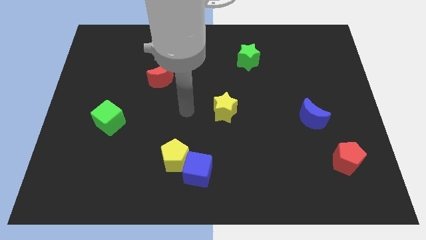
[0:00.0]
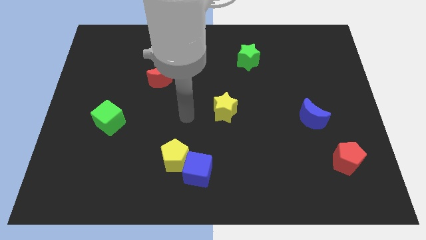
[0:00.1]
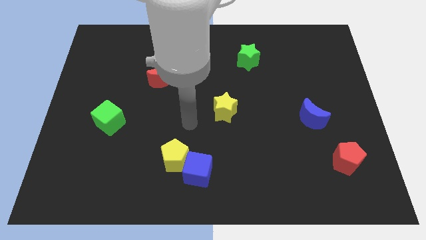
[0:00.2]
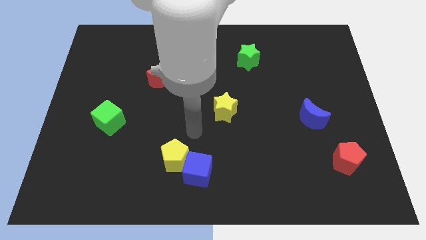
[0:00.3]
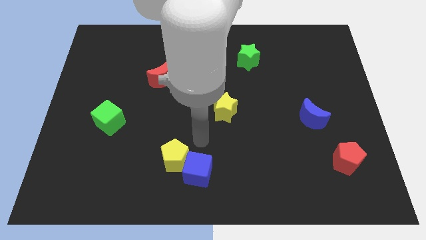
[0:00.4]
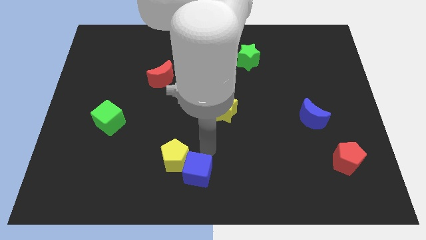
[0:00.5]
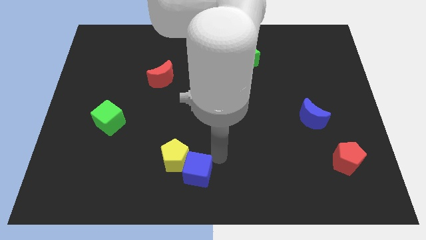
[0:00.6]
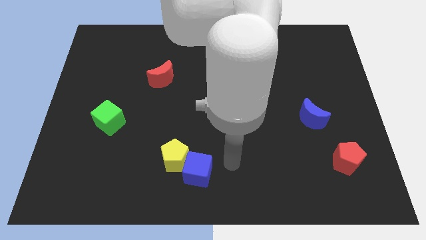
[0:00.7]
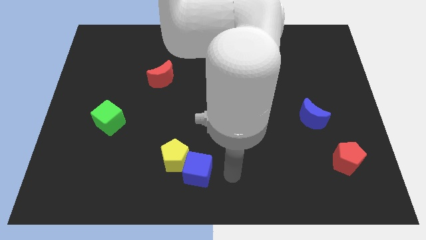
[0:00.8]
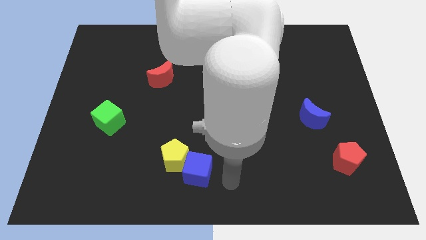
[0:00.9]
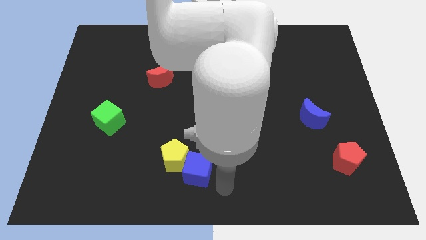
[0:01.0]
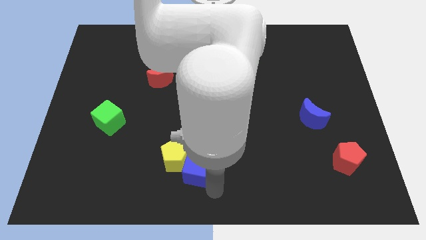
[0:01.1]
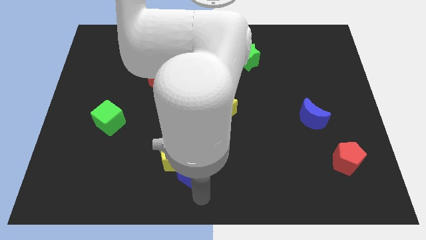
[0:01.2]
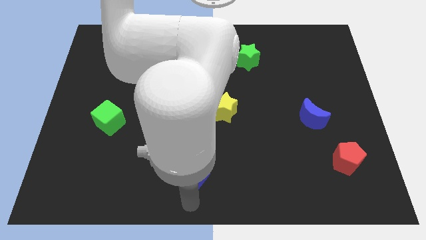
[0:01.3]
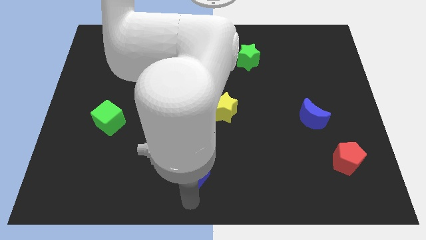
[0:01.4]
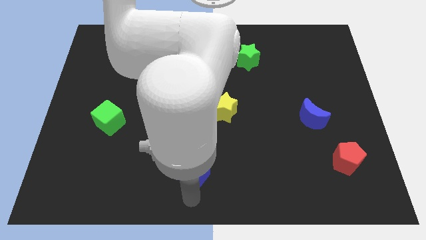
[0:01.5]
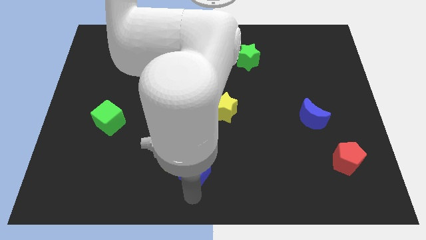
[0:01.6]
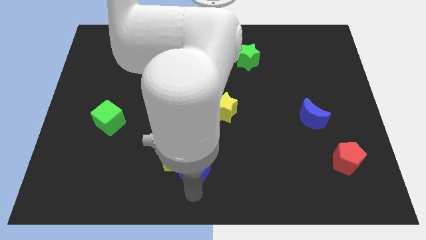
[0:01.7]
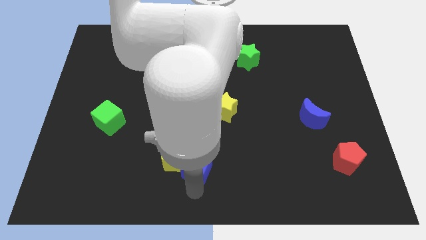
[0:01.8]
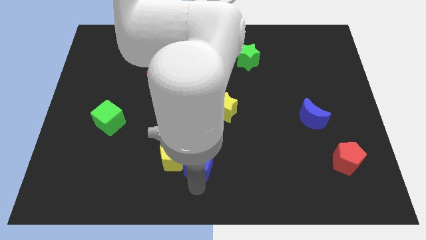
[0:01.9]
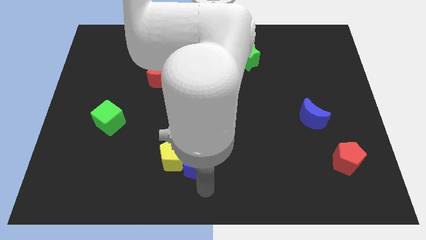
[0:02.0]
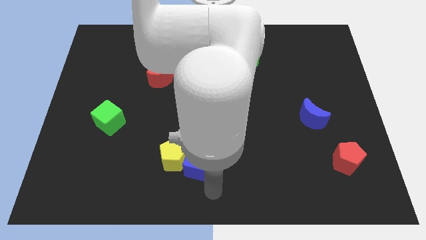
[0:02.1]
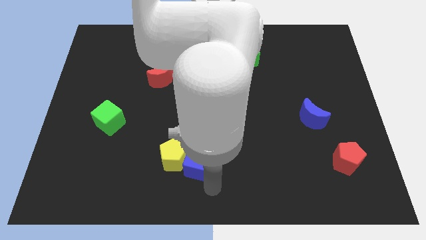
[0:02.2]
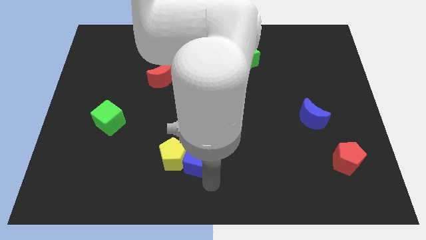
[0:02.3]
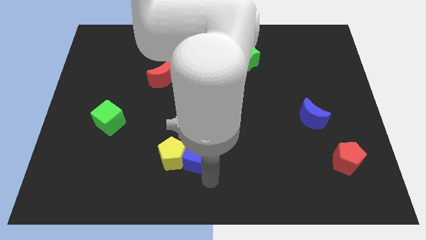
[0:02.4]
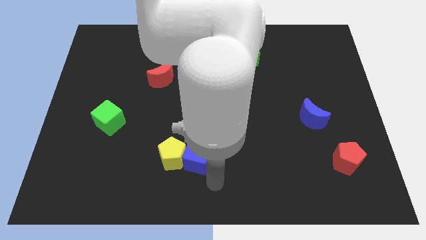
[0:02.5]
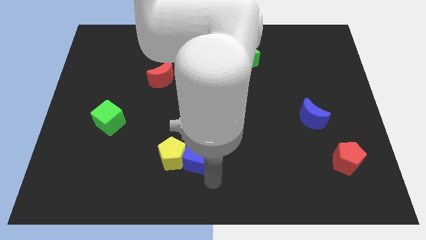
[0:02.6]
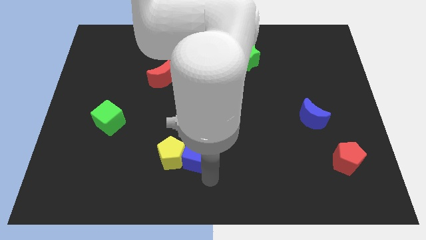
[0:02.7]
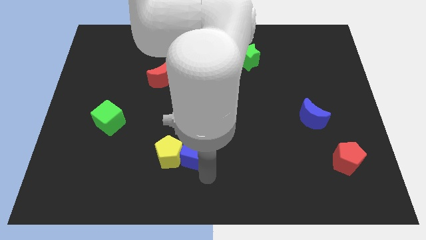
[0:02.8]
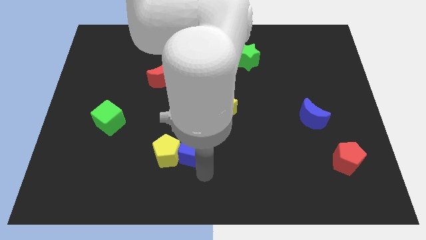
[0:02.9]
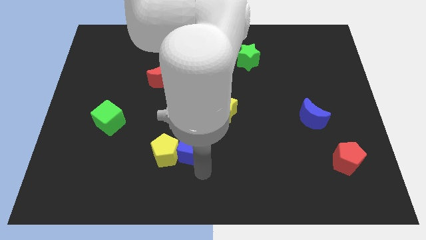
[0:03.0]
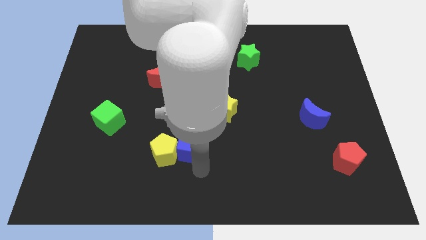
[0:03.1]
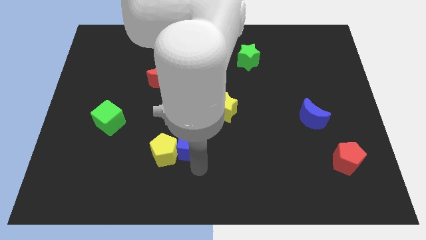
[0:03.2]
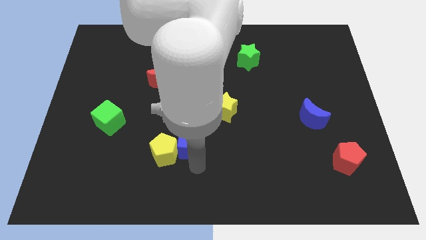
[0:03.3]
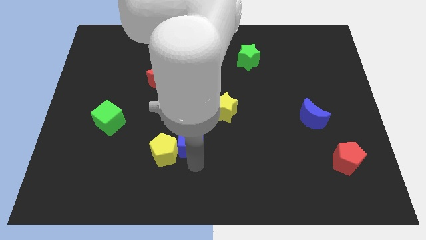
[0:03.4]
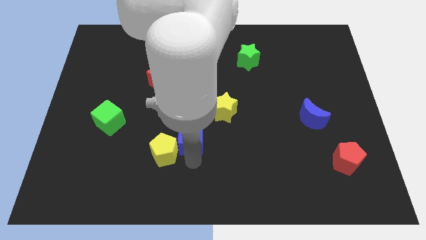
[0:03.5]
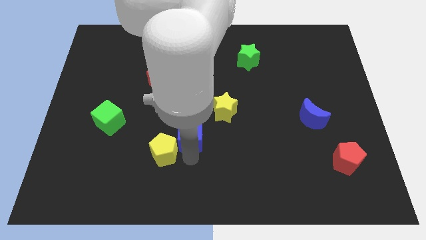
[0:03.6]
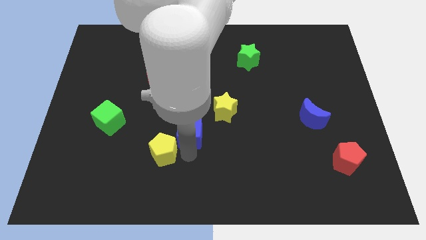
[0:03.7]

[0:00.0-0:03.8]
push the blue cube upwards and then to the left a little

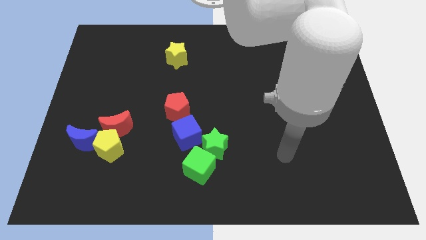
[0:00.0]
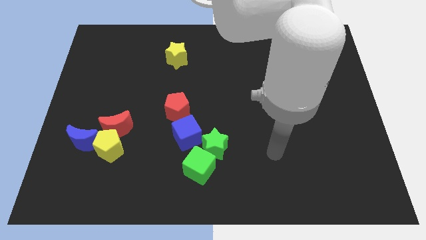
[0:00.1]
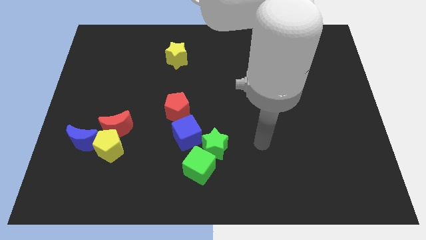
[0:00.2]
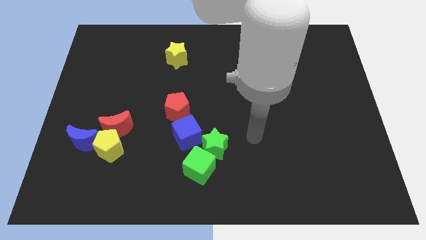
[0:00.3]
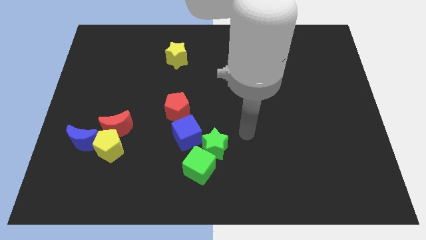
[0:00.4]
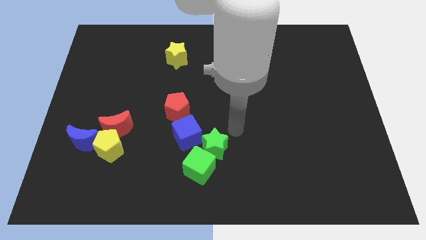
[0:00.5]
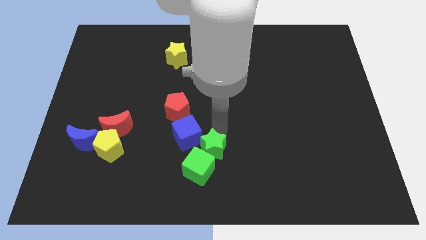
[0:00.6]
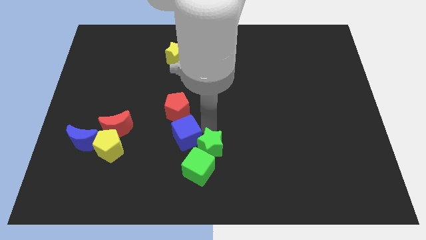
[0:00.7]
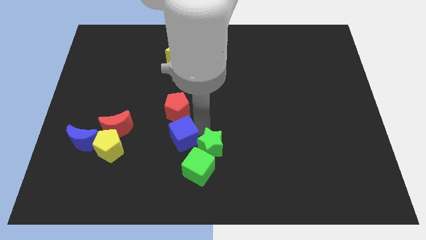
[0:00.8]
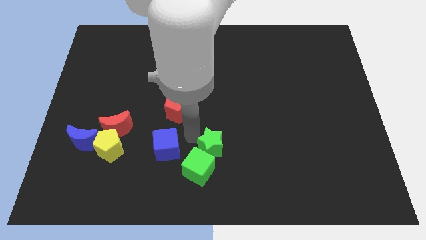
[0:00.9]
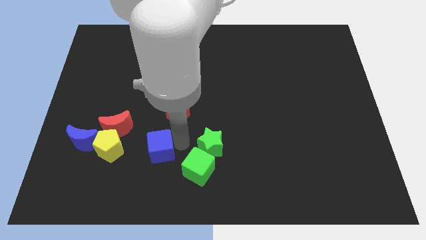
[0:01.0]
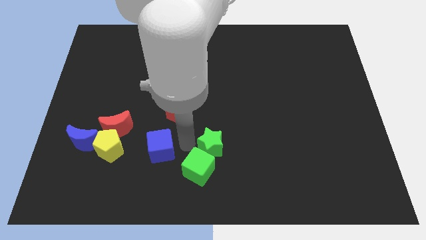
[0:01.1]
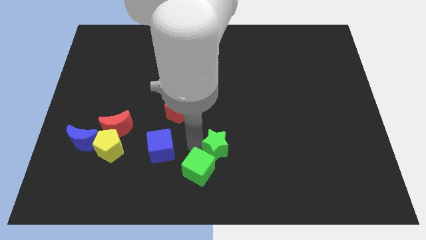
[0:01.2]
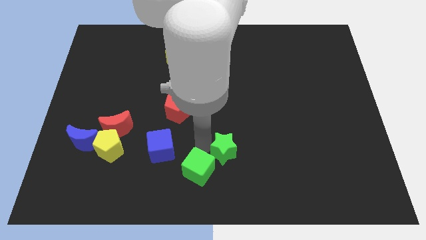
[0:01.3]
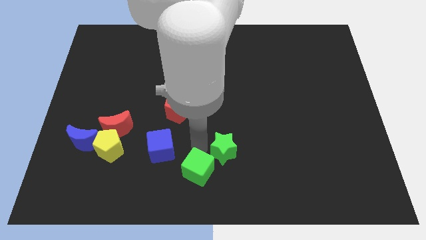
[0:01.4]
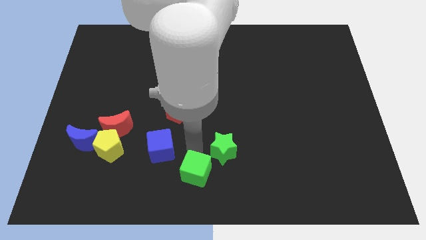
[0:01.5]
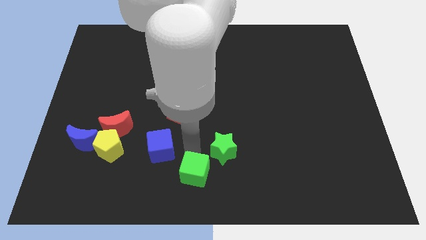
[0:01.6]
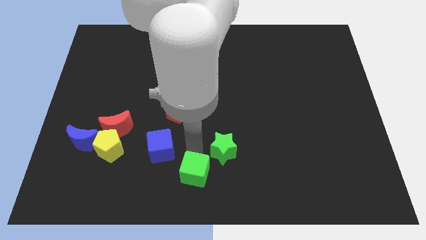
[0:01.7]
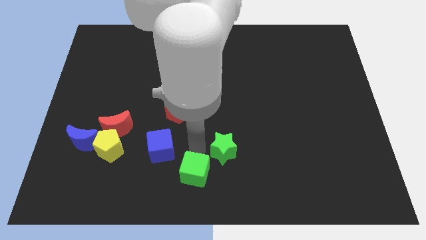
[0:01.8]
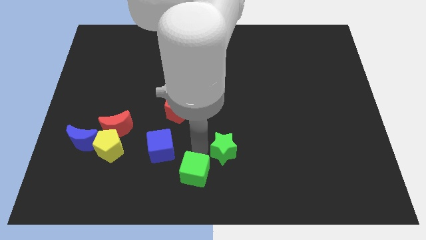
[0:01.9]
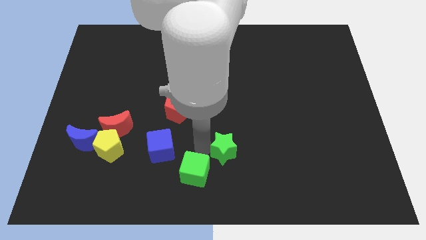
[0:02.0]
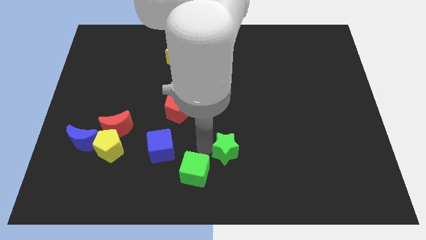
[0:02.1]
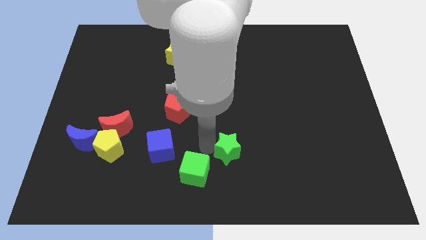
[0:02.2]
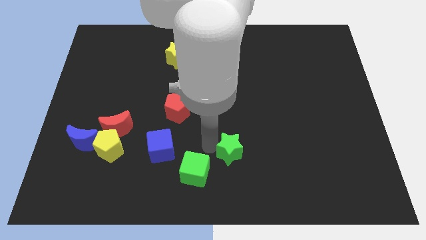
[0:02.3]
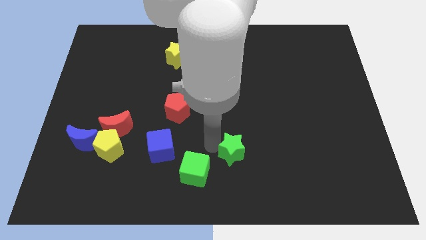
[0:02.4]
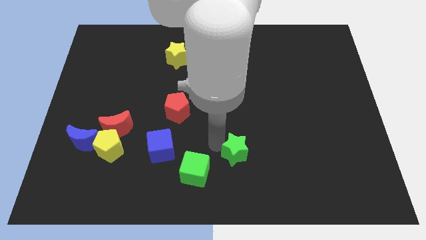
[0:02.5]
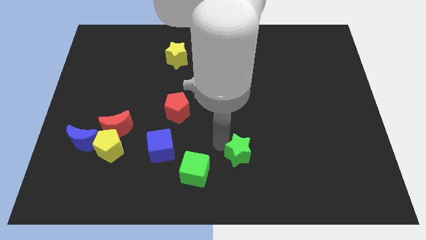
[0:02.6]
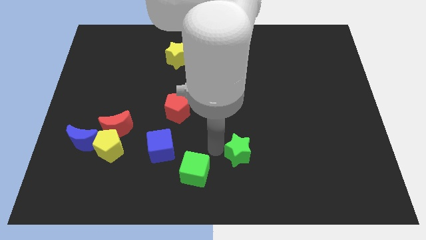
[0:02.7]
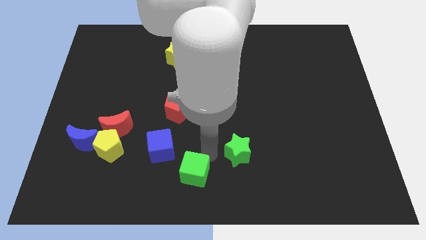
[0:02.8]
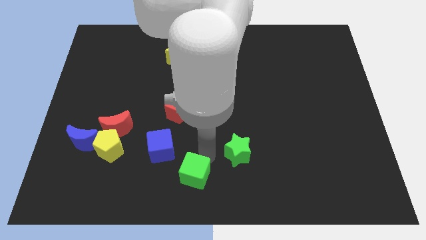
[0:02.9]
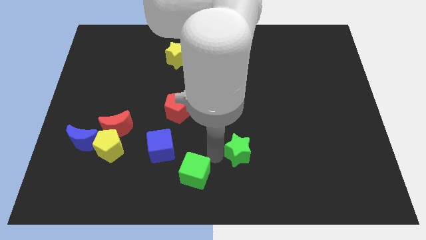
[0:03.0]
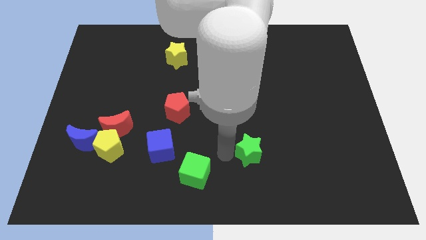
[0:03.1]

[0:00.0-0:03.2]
move the green star a little to the right

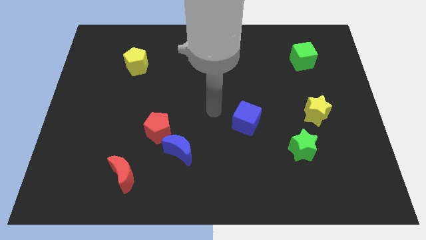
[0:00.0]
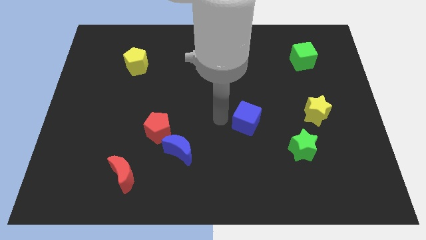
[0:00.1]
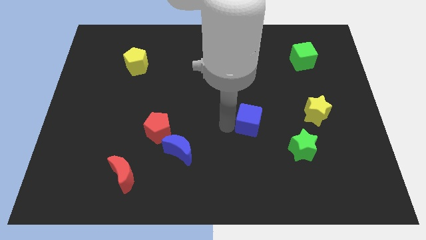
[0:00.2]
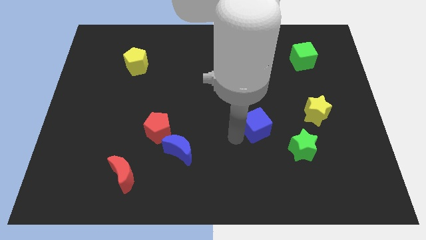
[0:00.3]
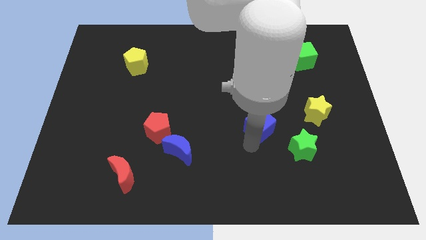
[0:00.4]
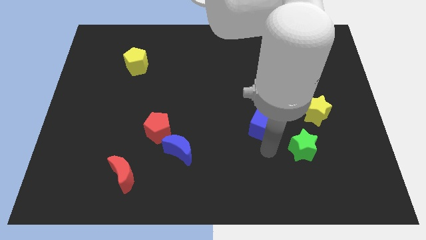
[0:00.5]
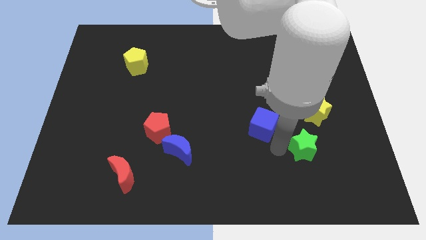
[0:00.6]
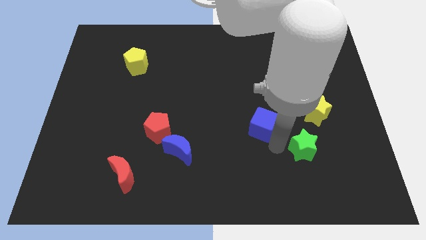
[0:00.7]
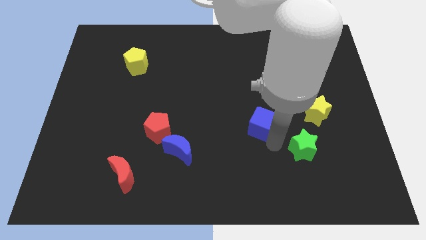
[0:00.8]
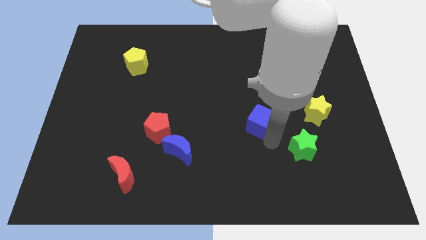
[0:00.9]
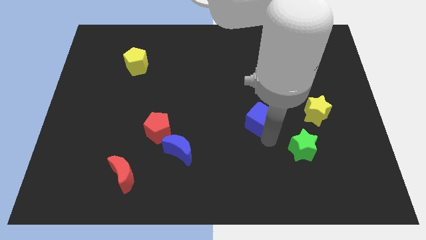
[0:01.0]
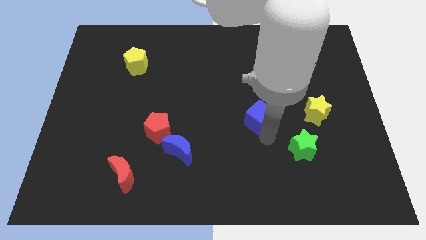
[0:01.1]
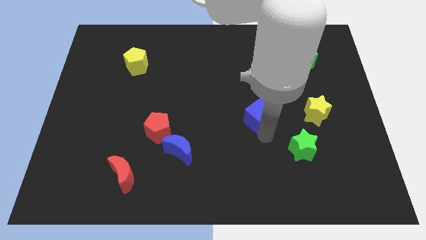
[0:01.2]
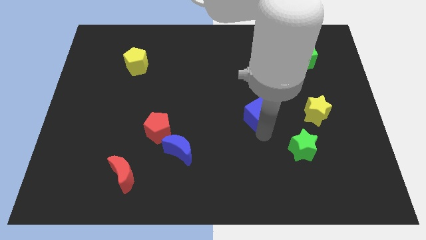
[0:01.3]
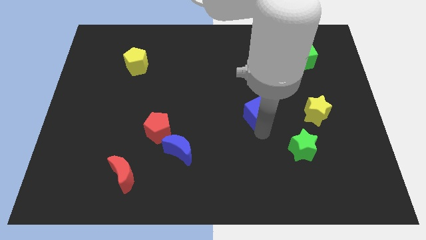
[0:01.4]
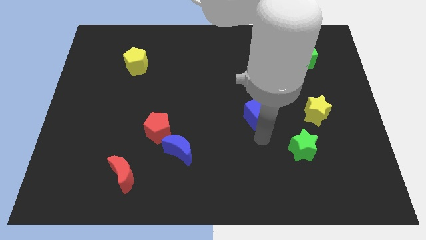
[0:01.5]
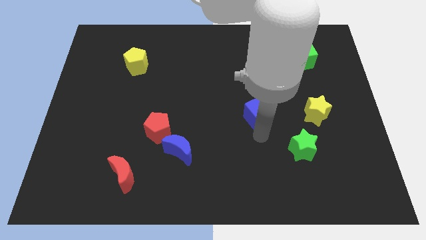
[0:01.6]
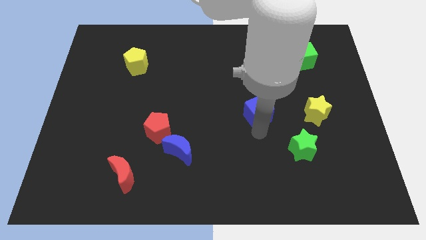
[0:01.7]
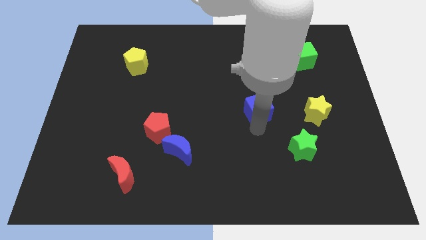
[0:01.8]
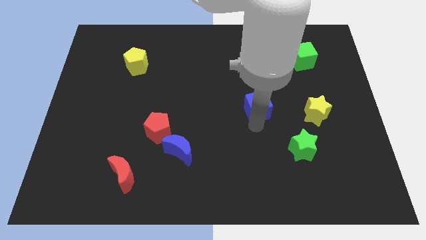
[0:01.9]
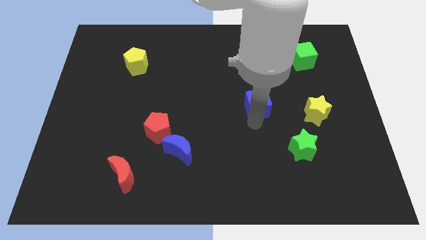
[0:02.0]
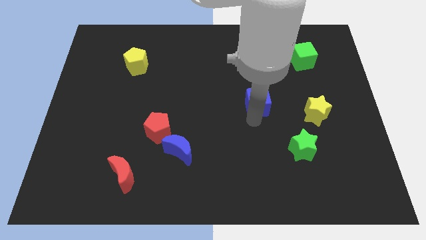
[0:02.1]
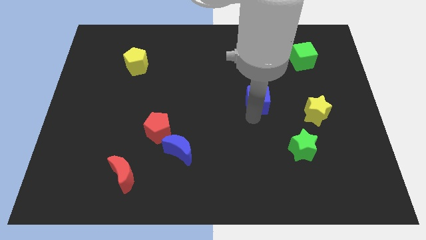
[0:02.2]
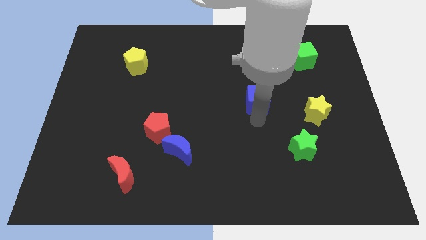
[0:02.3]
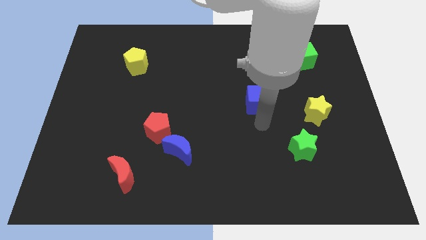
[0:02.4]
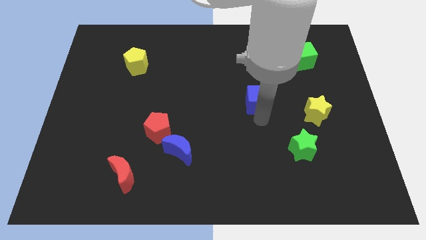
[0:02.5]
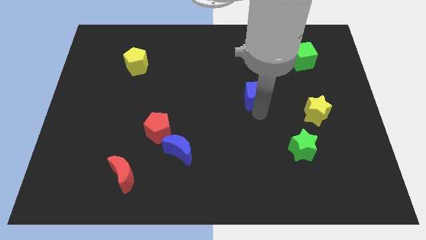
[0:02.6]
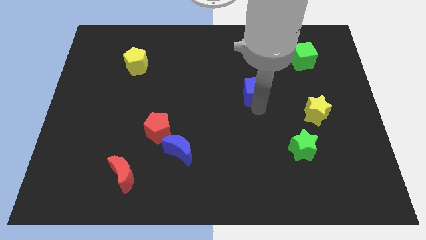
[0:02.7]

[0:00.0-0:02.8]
push the blue cube upwards a bit
